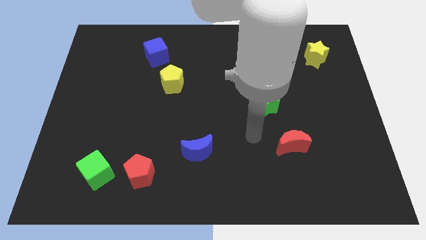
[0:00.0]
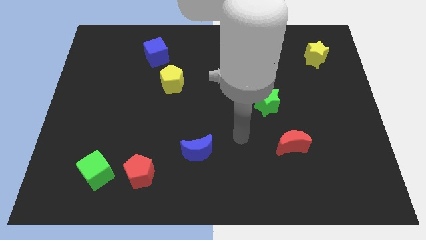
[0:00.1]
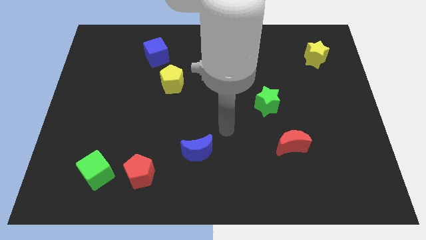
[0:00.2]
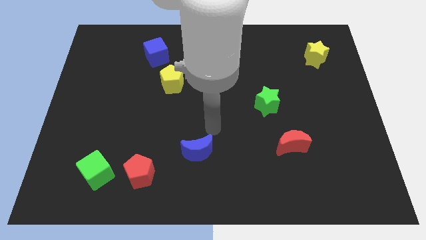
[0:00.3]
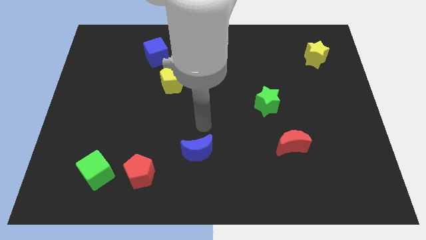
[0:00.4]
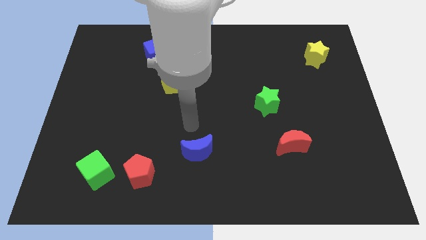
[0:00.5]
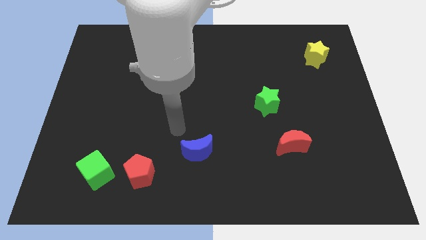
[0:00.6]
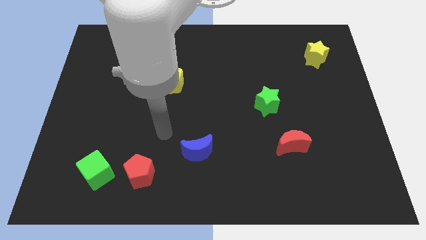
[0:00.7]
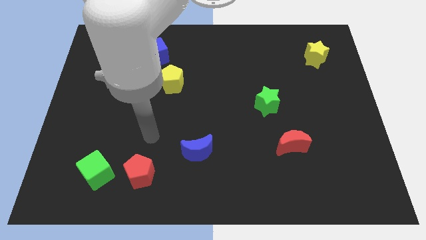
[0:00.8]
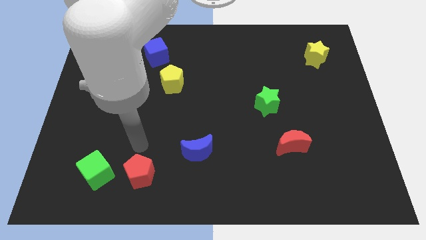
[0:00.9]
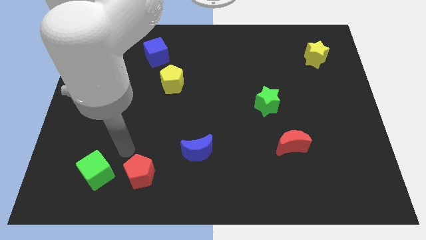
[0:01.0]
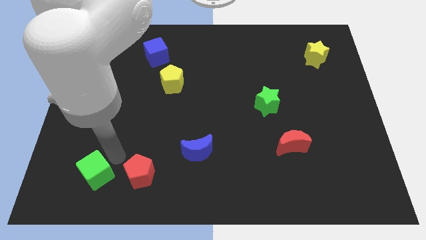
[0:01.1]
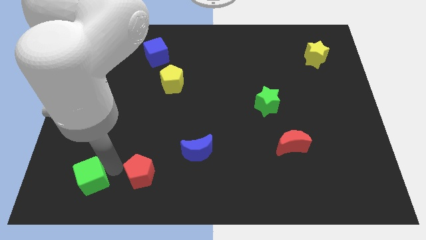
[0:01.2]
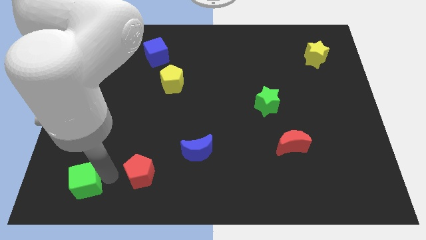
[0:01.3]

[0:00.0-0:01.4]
pull the red pentagon apart from the green cube

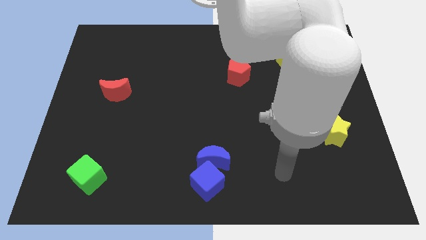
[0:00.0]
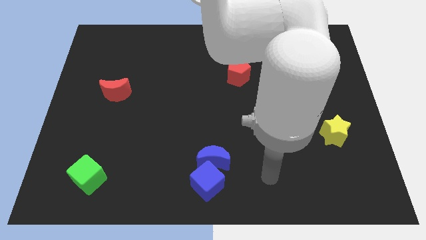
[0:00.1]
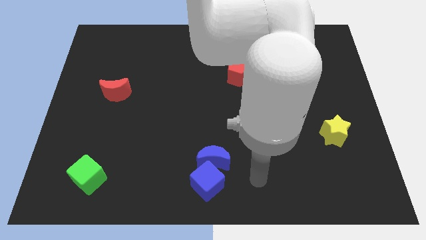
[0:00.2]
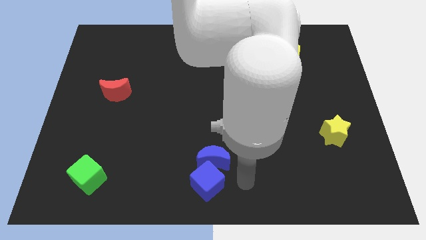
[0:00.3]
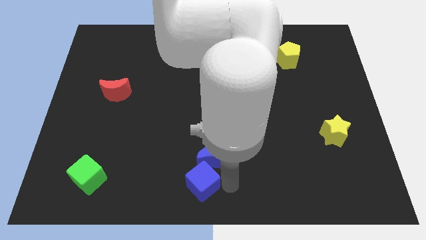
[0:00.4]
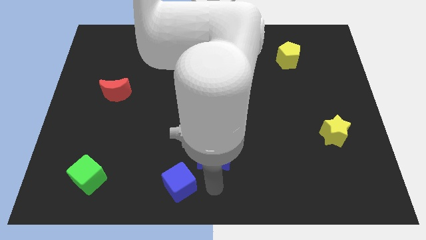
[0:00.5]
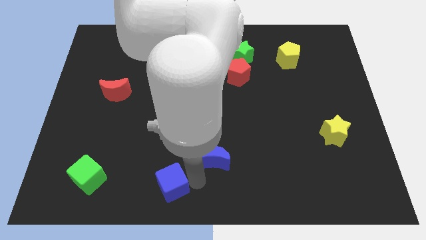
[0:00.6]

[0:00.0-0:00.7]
move the blue moon away from the blue cube

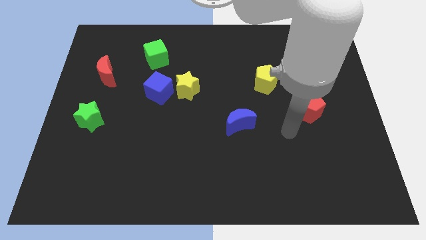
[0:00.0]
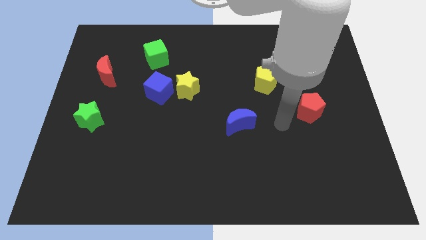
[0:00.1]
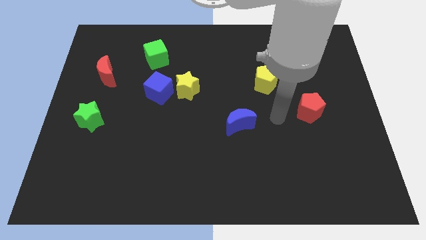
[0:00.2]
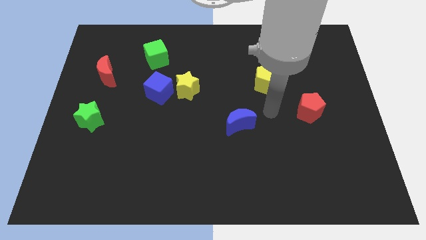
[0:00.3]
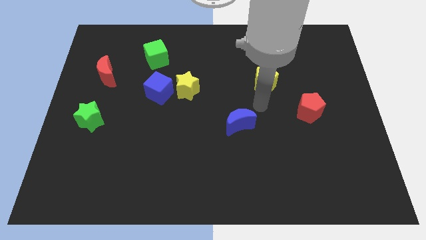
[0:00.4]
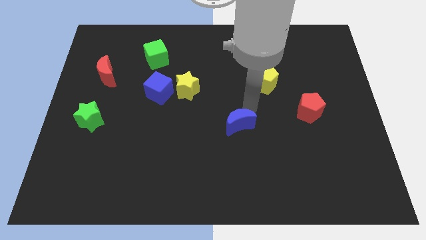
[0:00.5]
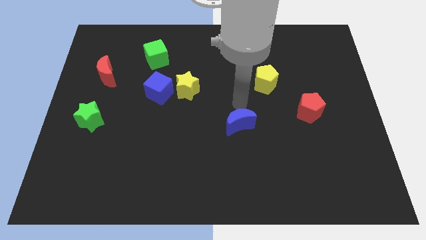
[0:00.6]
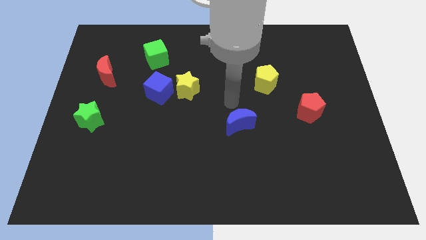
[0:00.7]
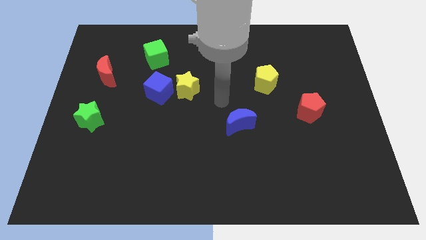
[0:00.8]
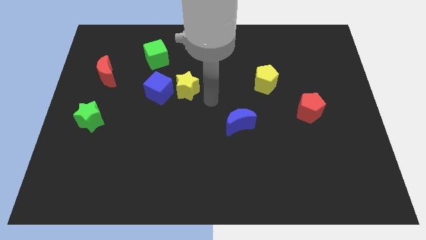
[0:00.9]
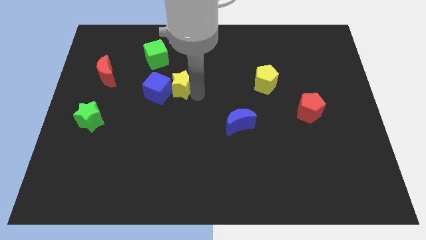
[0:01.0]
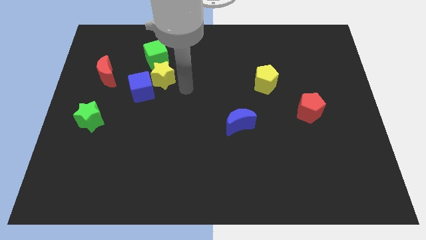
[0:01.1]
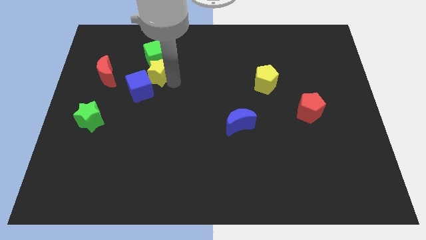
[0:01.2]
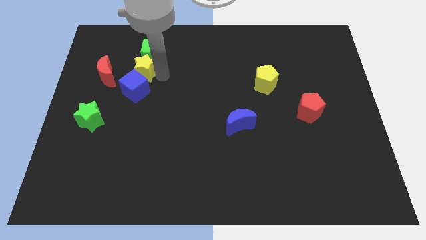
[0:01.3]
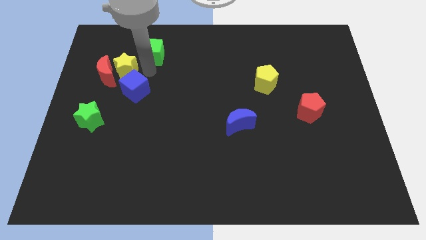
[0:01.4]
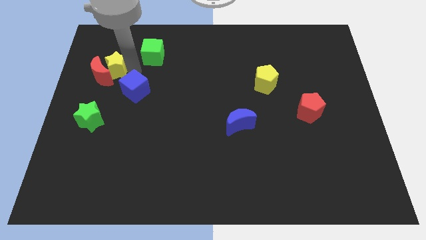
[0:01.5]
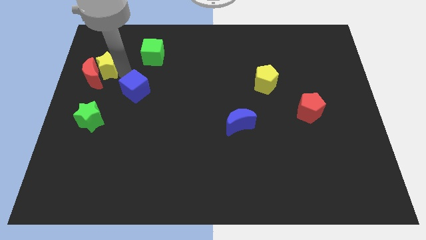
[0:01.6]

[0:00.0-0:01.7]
separate the blue cube from the yellow star

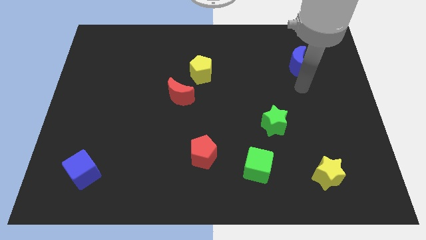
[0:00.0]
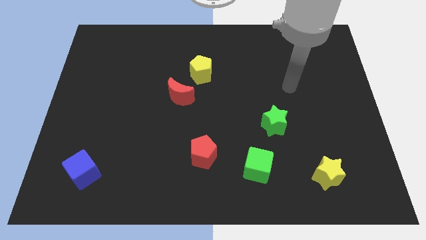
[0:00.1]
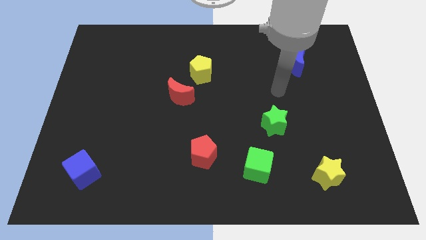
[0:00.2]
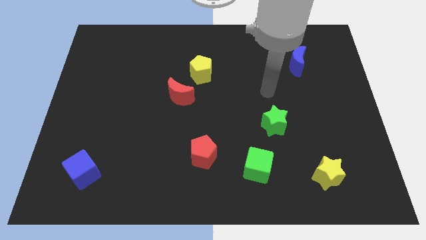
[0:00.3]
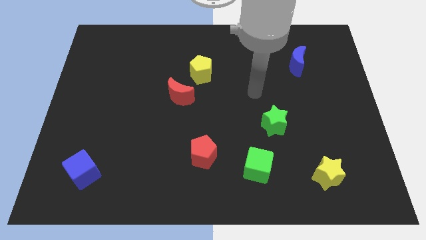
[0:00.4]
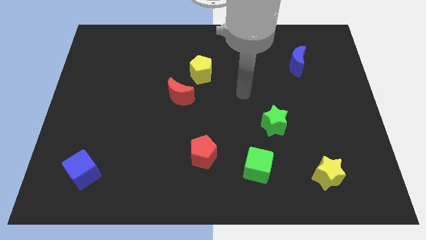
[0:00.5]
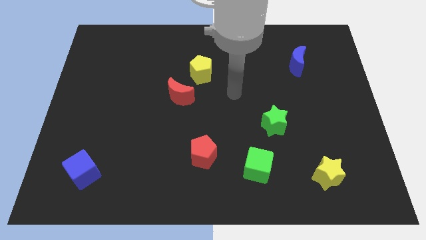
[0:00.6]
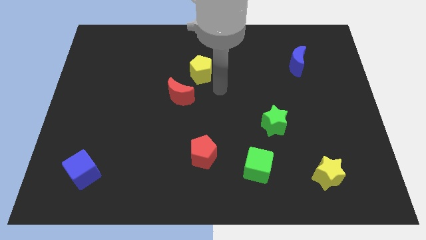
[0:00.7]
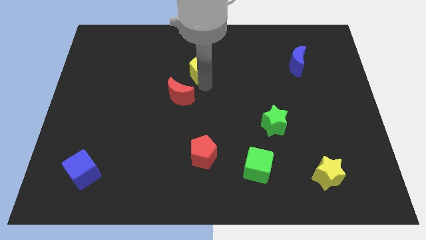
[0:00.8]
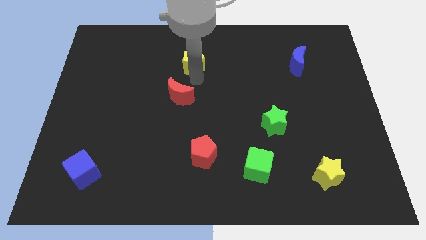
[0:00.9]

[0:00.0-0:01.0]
separate the red moon from the yellow pentagon

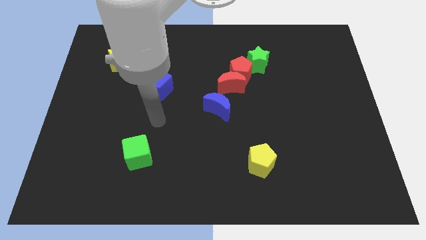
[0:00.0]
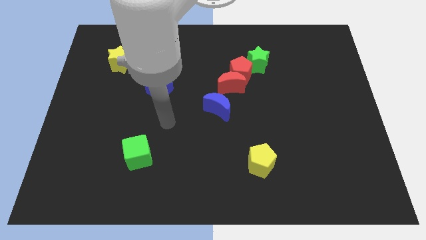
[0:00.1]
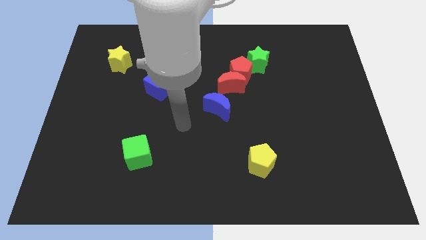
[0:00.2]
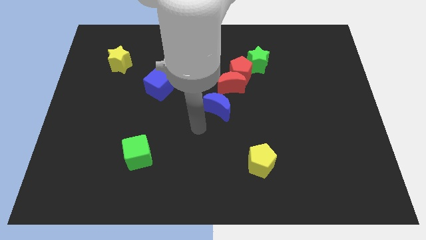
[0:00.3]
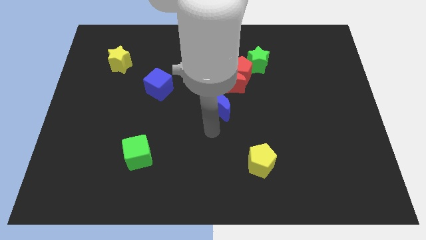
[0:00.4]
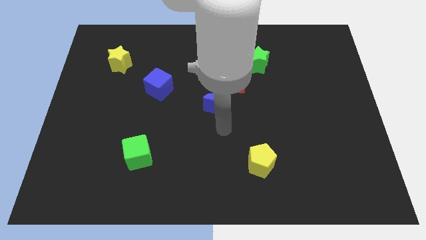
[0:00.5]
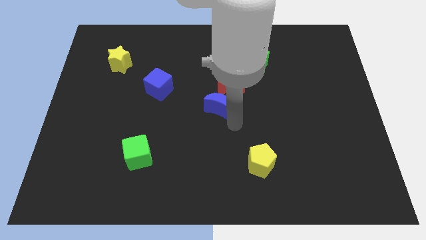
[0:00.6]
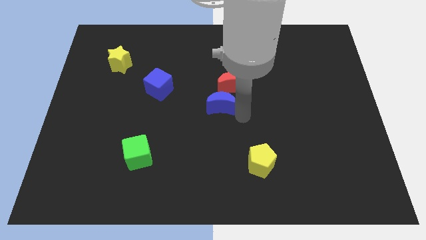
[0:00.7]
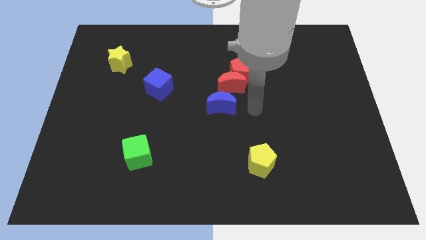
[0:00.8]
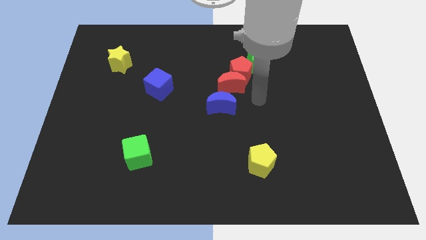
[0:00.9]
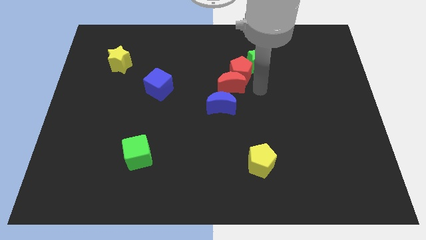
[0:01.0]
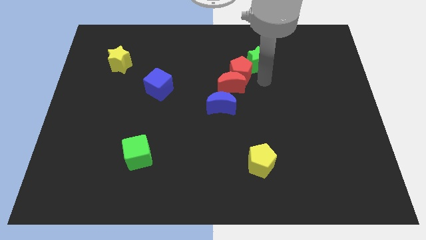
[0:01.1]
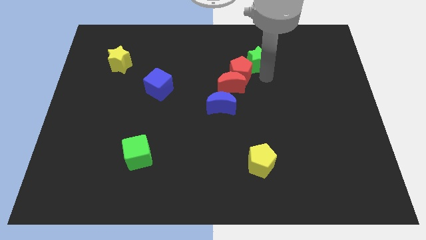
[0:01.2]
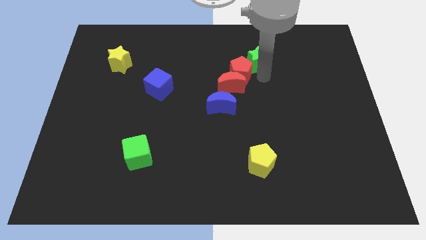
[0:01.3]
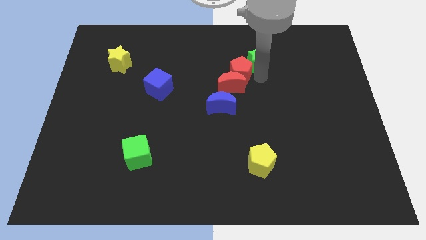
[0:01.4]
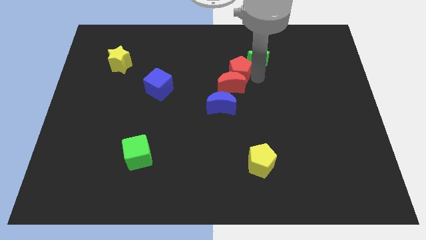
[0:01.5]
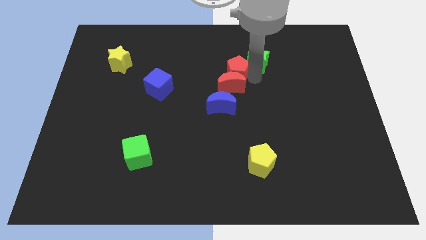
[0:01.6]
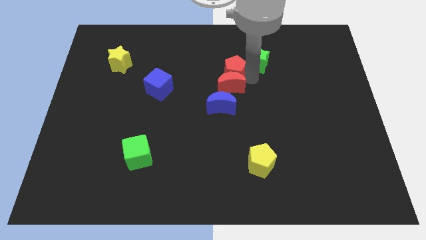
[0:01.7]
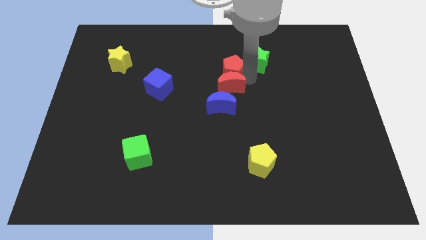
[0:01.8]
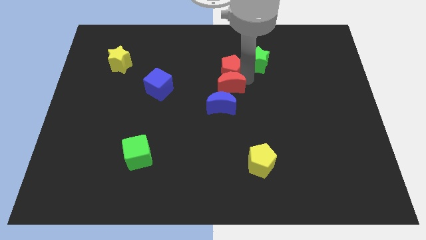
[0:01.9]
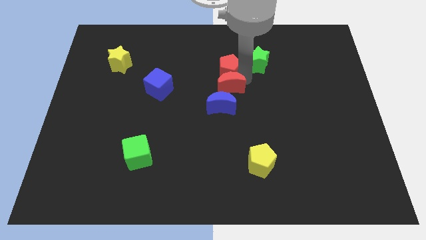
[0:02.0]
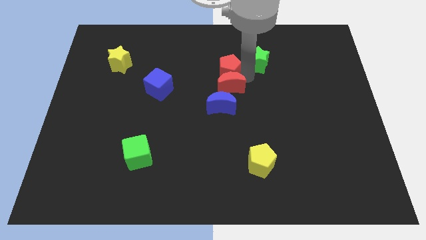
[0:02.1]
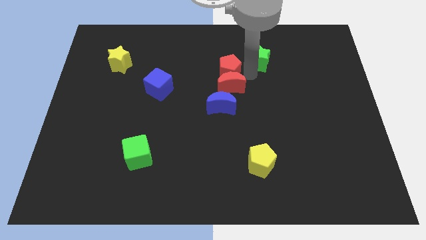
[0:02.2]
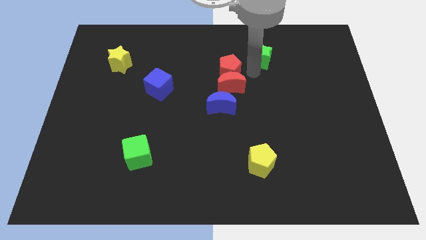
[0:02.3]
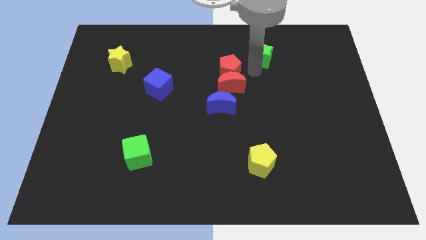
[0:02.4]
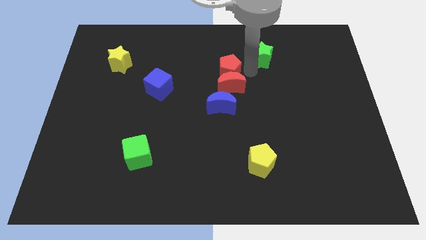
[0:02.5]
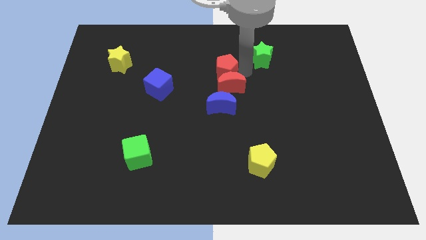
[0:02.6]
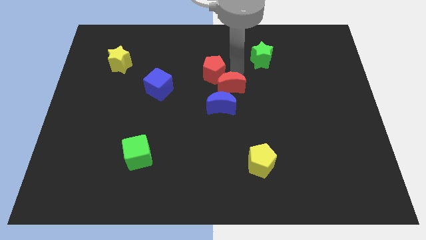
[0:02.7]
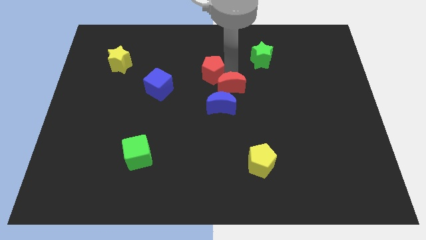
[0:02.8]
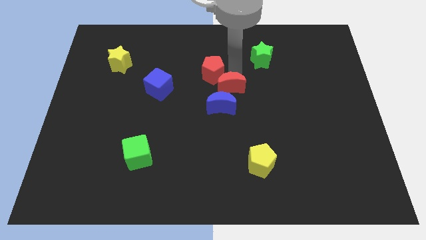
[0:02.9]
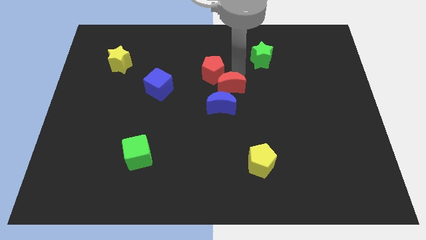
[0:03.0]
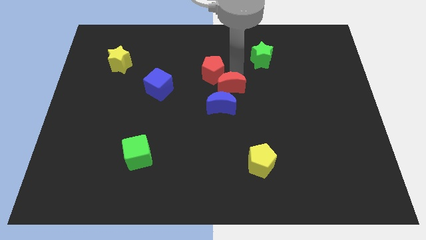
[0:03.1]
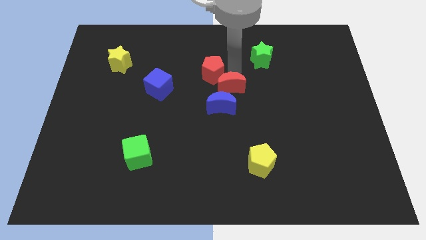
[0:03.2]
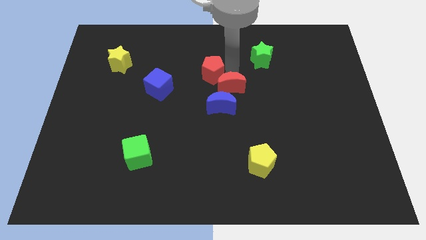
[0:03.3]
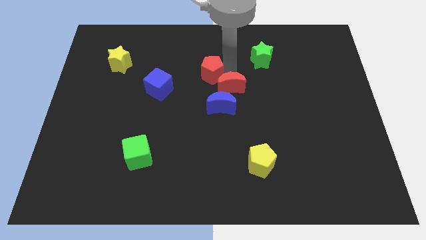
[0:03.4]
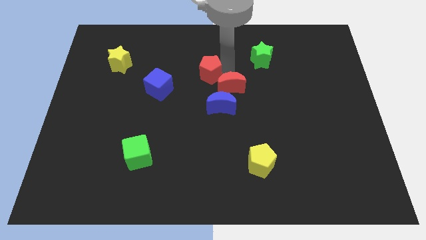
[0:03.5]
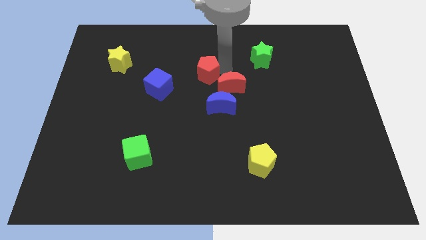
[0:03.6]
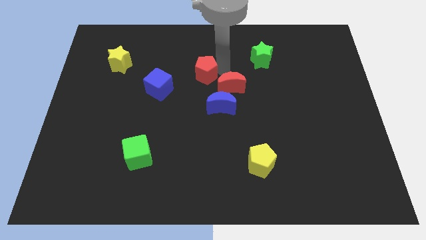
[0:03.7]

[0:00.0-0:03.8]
move the red pentagon away from the red moon and green star

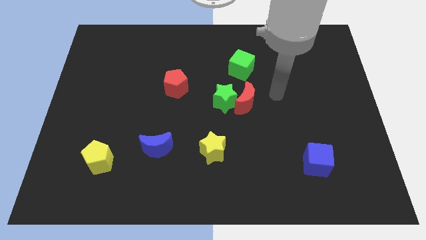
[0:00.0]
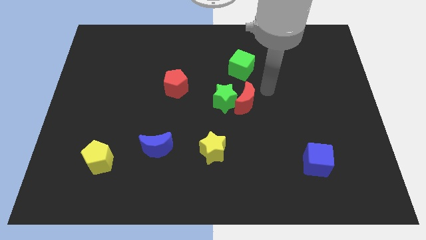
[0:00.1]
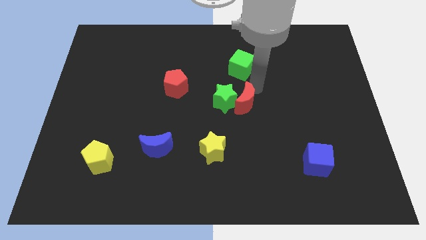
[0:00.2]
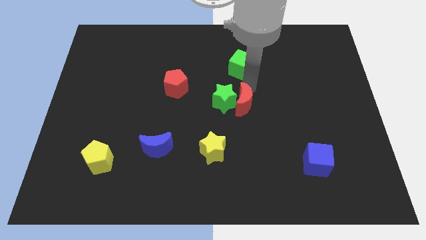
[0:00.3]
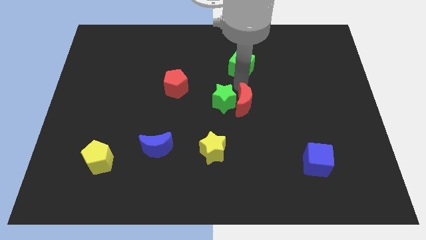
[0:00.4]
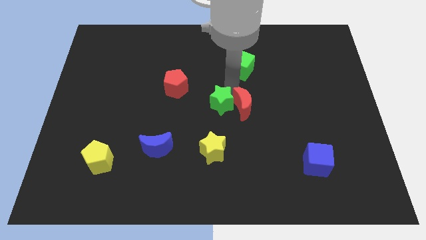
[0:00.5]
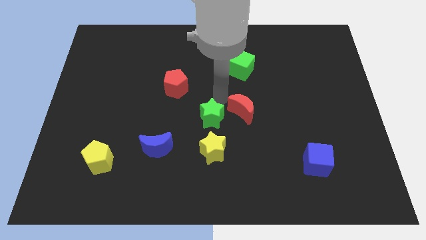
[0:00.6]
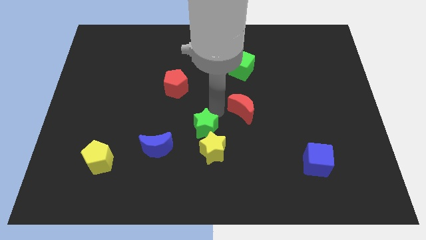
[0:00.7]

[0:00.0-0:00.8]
separate the red moon from the green star

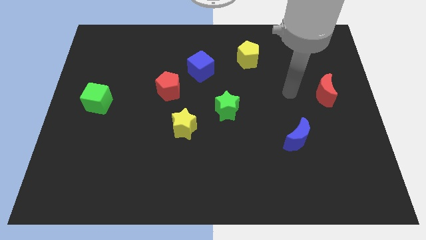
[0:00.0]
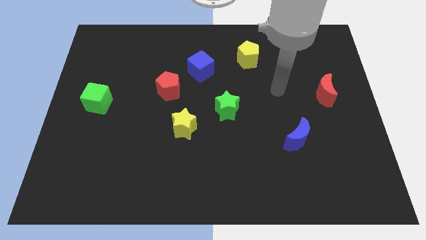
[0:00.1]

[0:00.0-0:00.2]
separate the red pentagon from the blue cube
